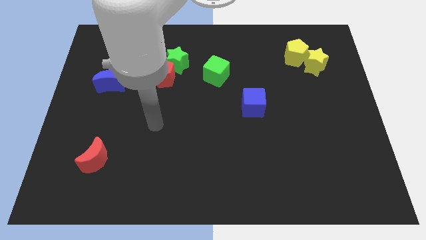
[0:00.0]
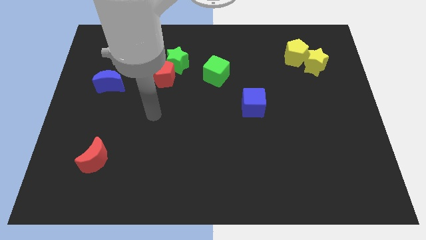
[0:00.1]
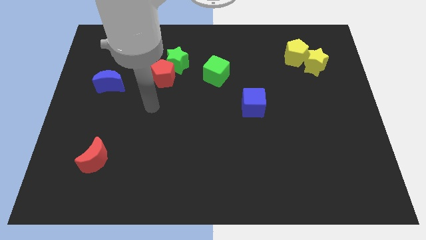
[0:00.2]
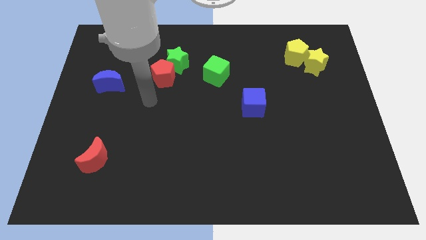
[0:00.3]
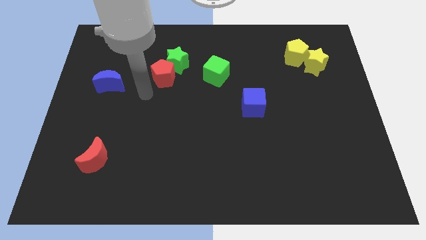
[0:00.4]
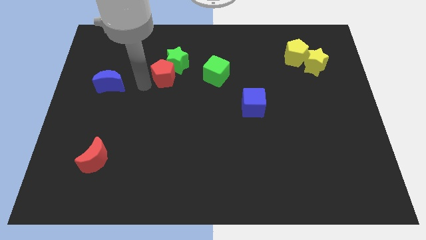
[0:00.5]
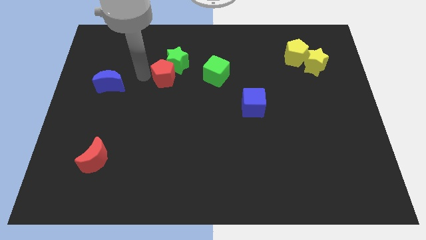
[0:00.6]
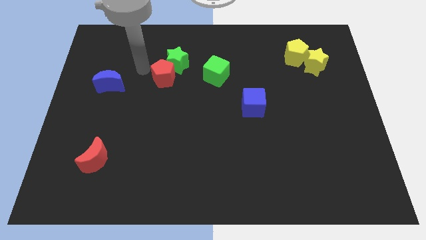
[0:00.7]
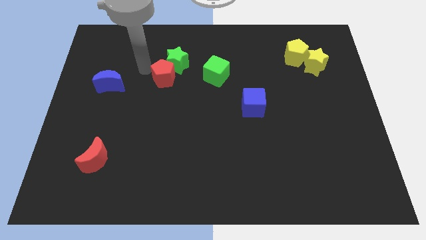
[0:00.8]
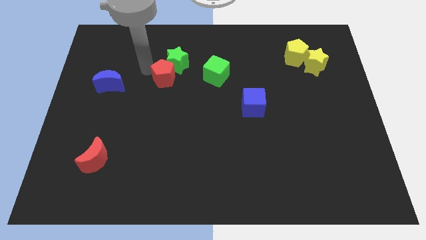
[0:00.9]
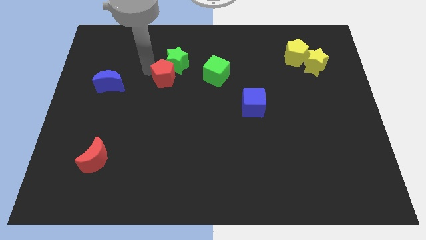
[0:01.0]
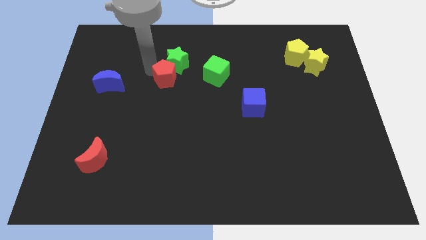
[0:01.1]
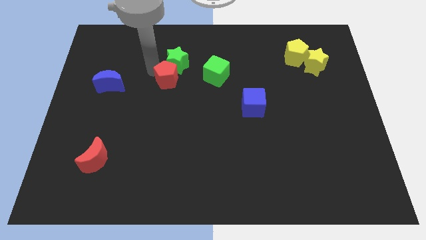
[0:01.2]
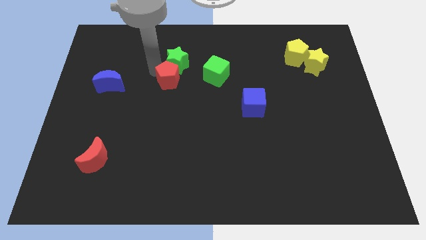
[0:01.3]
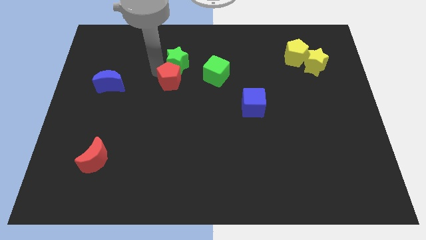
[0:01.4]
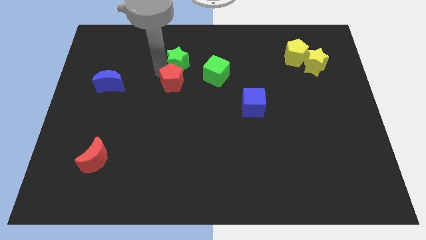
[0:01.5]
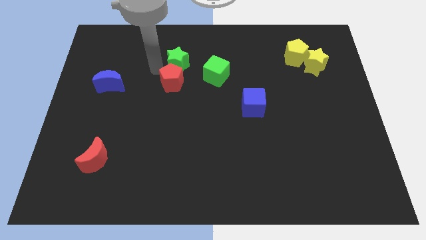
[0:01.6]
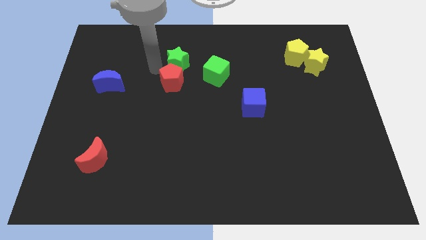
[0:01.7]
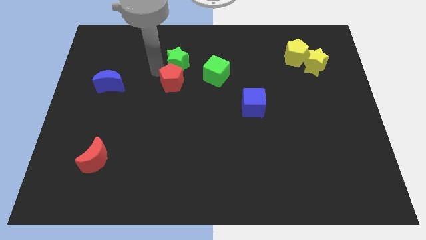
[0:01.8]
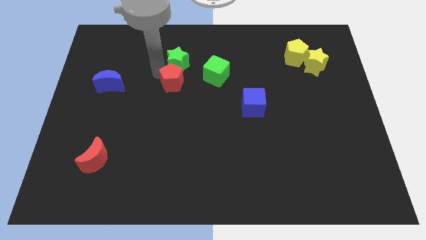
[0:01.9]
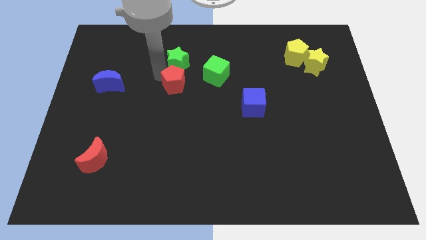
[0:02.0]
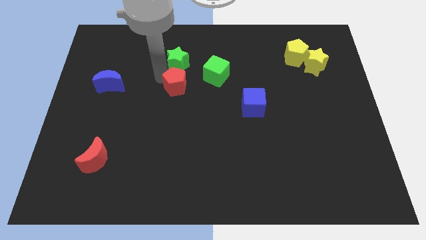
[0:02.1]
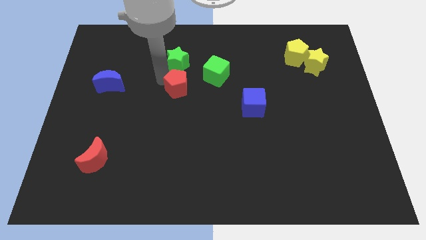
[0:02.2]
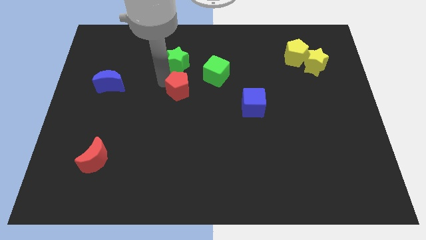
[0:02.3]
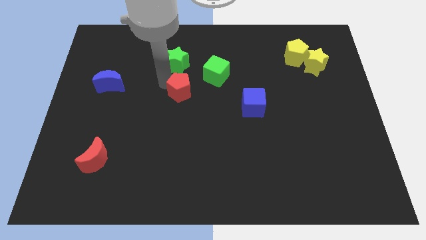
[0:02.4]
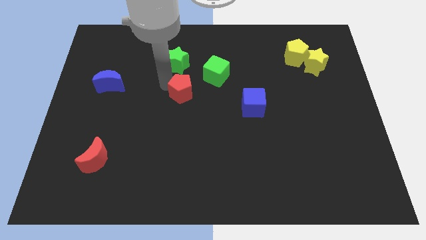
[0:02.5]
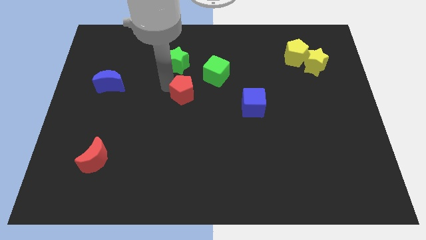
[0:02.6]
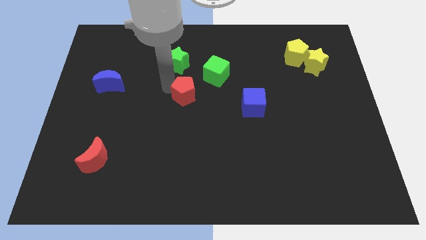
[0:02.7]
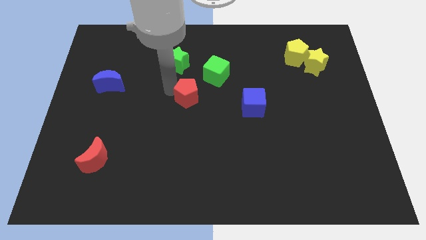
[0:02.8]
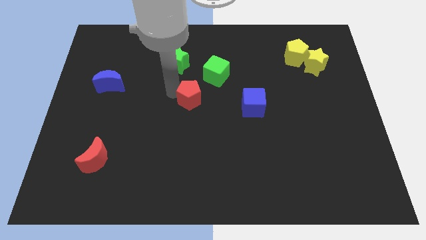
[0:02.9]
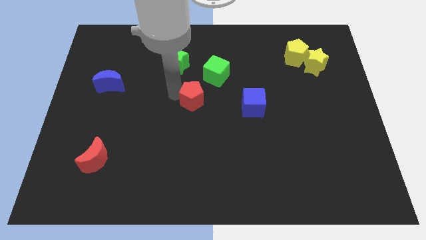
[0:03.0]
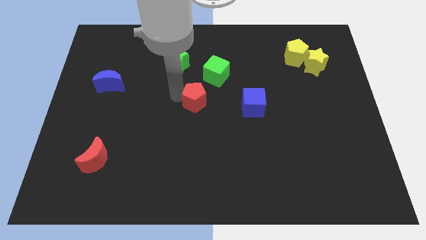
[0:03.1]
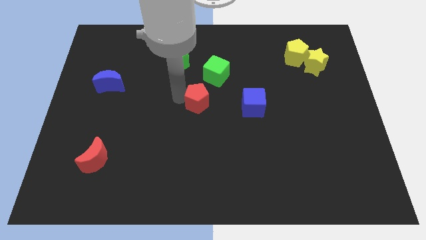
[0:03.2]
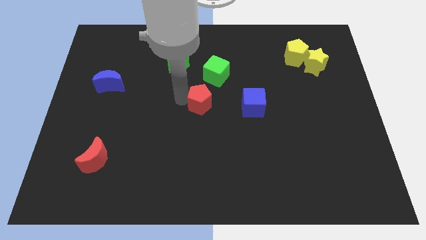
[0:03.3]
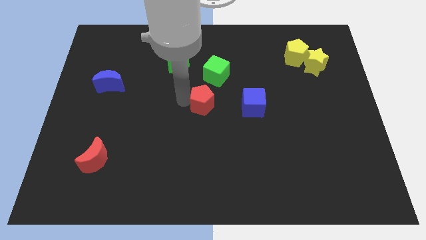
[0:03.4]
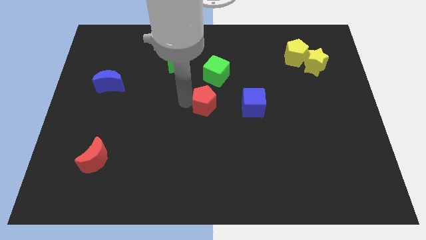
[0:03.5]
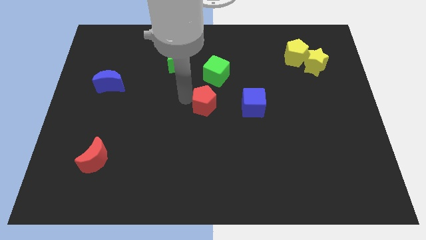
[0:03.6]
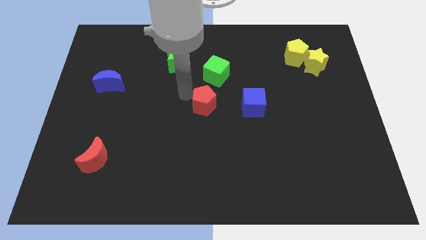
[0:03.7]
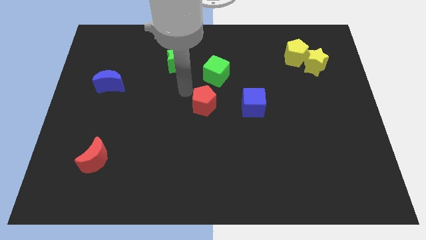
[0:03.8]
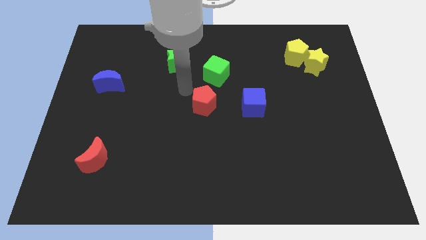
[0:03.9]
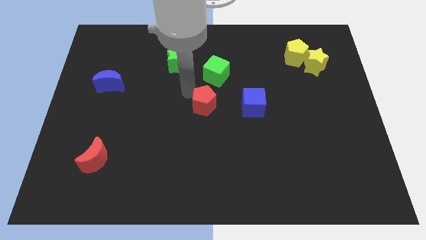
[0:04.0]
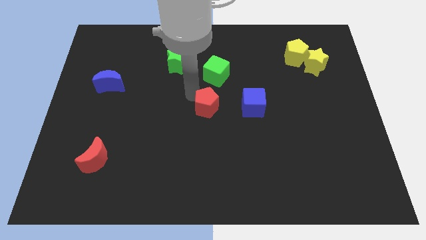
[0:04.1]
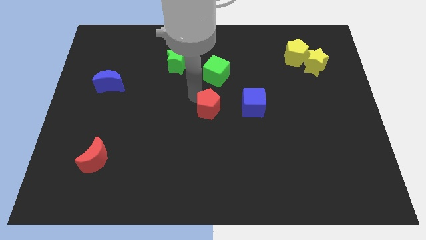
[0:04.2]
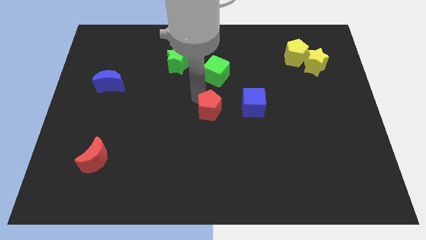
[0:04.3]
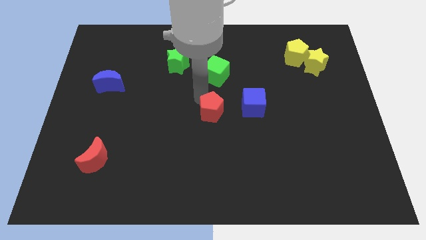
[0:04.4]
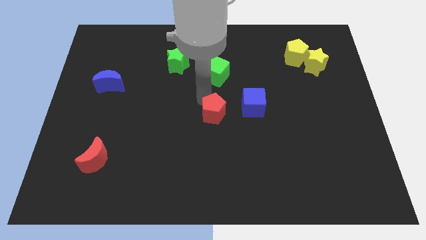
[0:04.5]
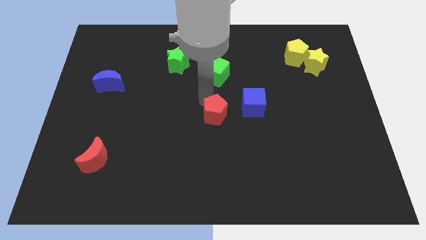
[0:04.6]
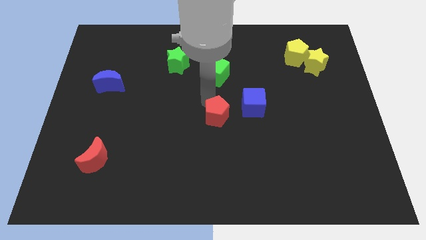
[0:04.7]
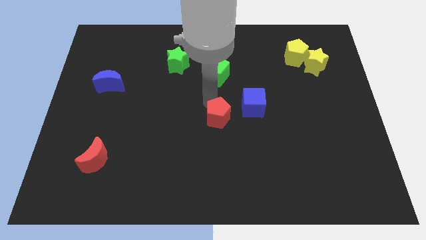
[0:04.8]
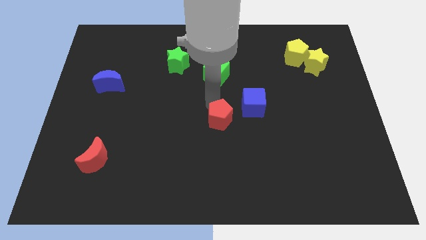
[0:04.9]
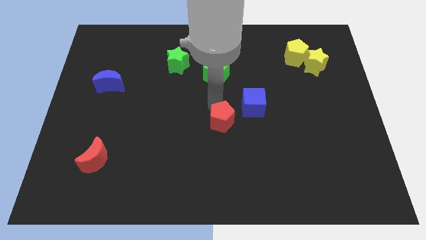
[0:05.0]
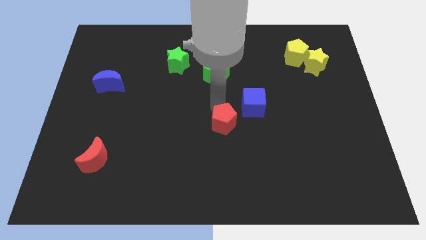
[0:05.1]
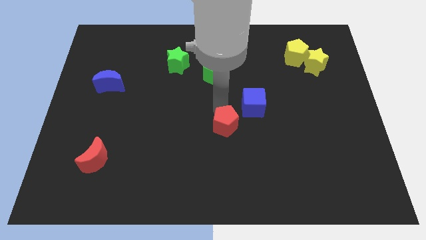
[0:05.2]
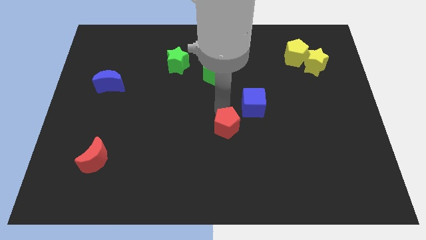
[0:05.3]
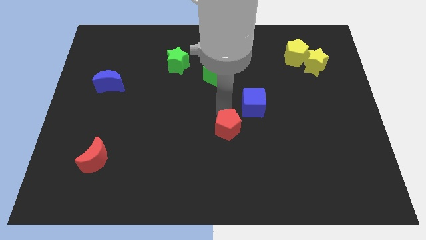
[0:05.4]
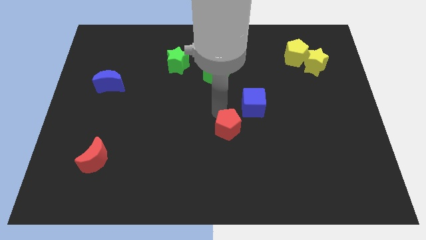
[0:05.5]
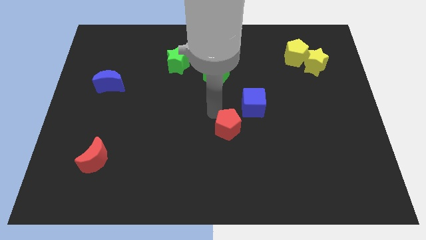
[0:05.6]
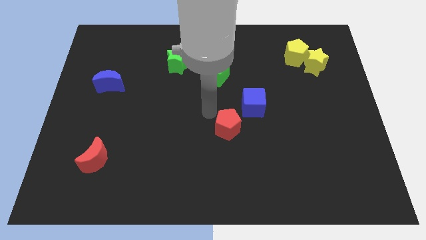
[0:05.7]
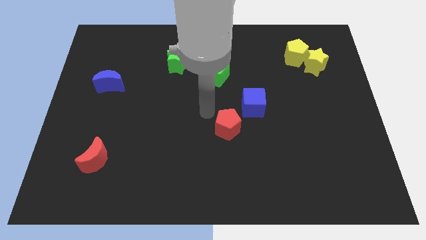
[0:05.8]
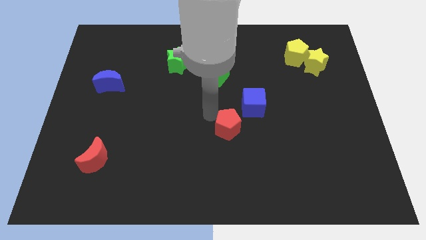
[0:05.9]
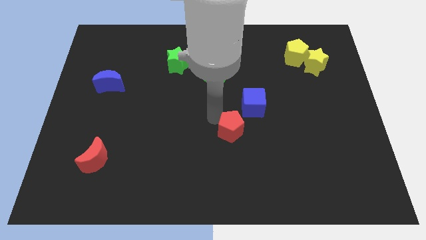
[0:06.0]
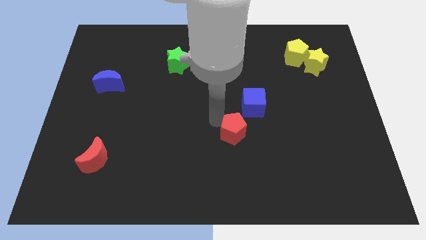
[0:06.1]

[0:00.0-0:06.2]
move the red pentagon below the blue cube
